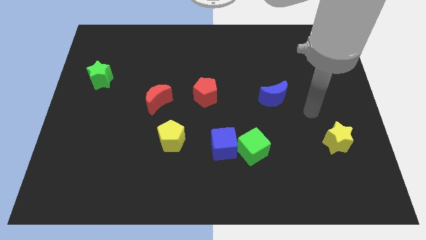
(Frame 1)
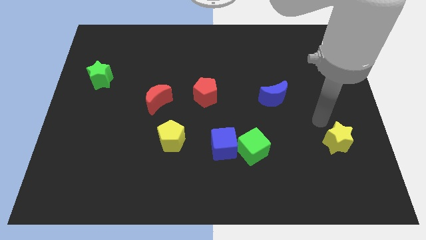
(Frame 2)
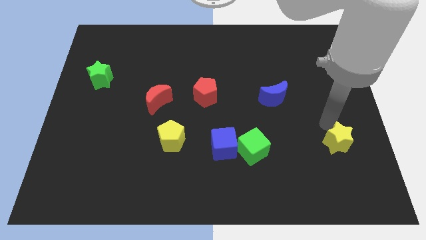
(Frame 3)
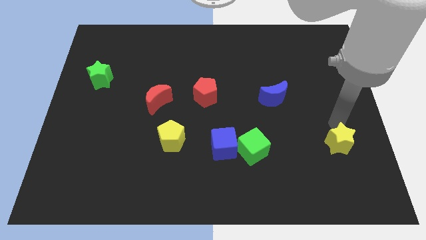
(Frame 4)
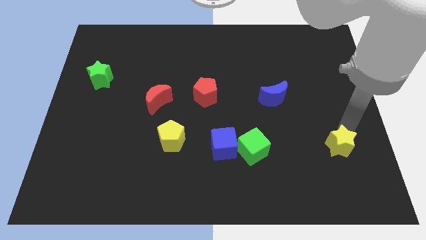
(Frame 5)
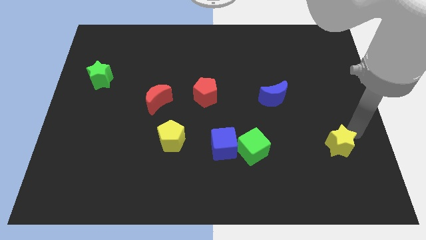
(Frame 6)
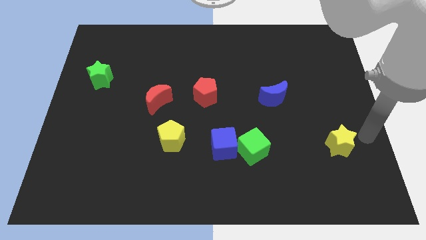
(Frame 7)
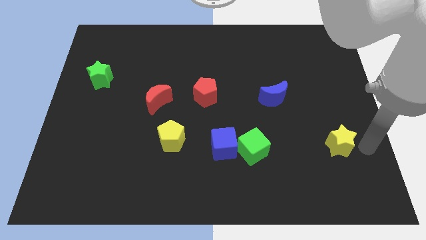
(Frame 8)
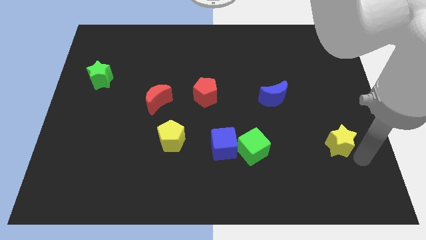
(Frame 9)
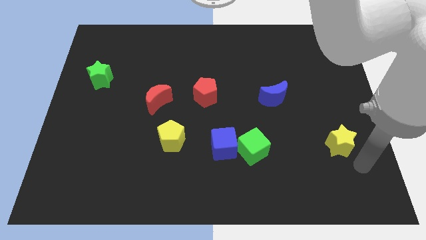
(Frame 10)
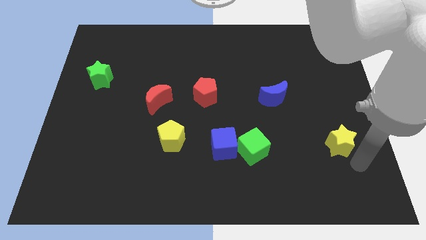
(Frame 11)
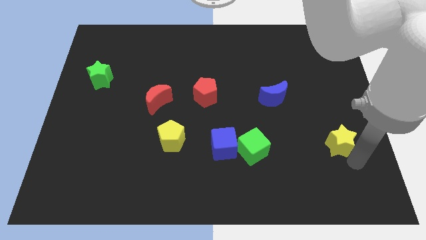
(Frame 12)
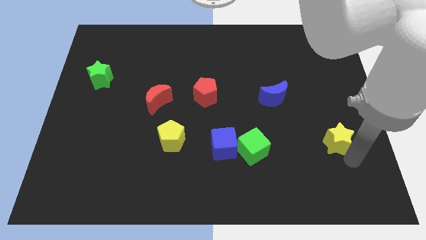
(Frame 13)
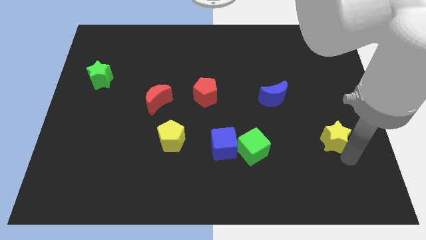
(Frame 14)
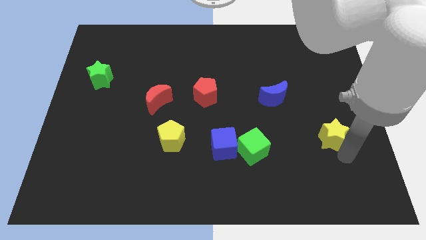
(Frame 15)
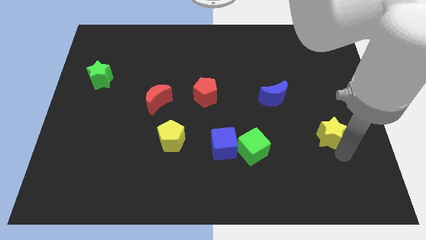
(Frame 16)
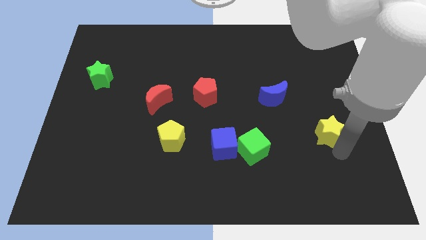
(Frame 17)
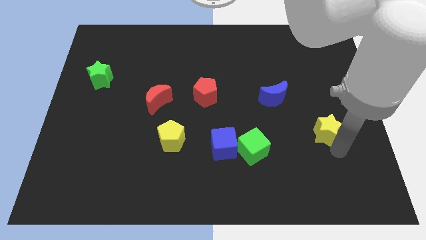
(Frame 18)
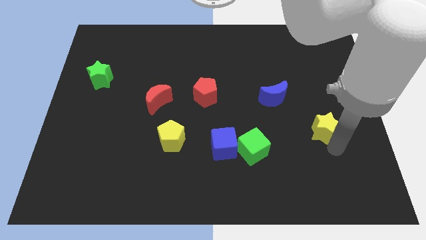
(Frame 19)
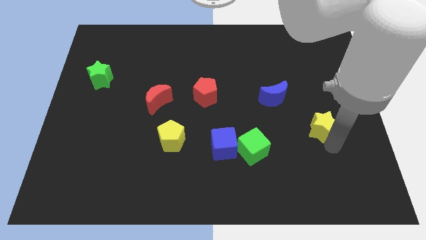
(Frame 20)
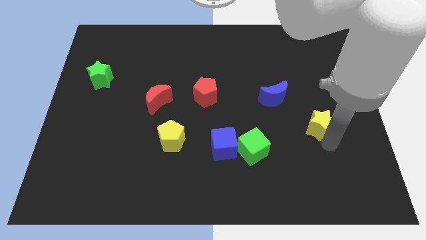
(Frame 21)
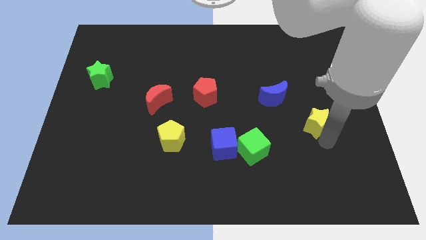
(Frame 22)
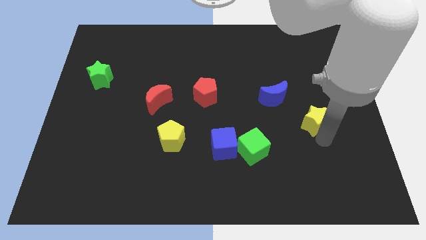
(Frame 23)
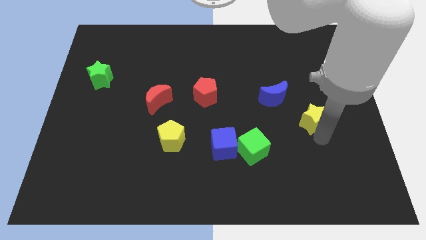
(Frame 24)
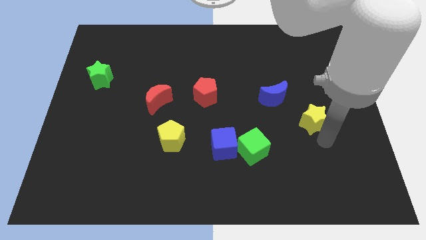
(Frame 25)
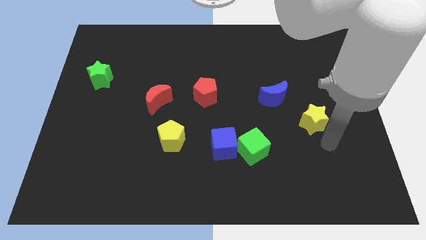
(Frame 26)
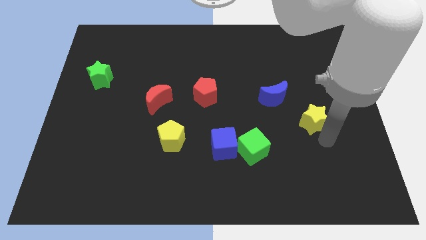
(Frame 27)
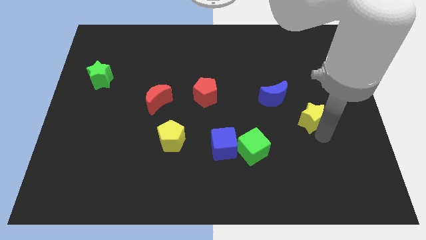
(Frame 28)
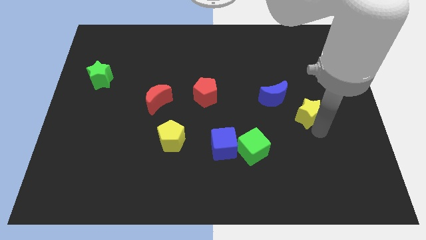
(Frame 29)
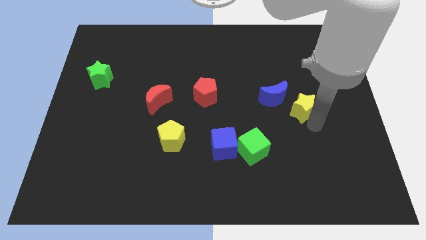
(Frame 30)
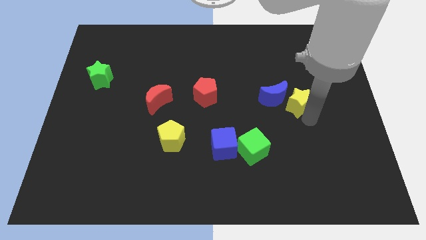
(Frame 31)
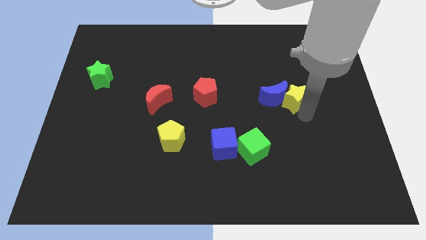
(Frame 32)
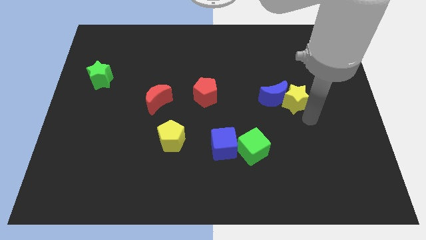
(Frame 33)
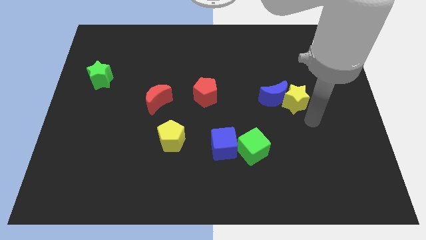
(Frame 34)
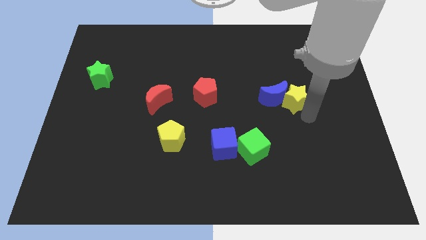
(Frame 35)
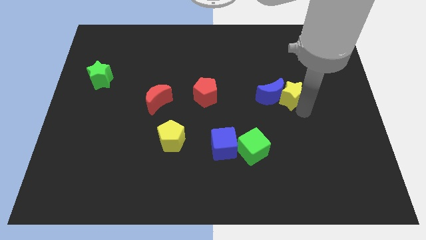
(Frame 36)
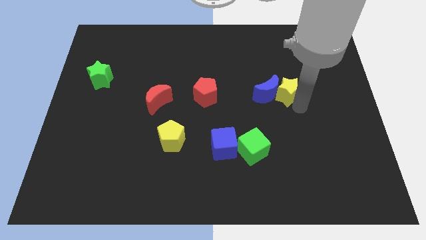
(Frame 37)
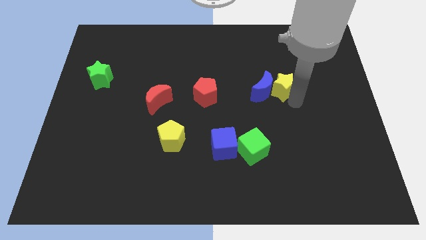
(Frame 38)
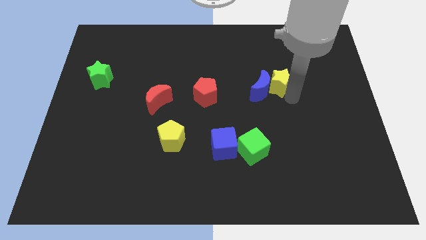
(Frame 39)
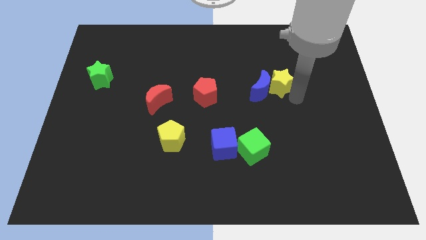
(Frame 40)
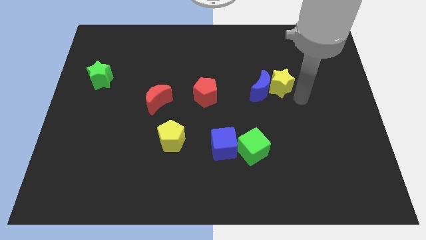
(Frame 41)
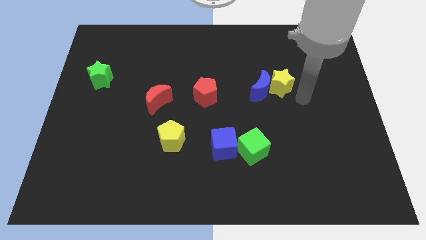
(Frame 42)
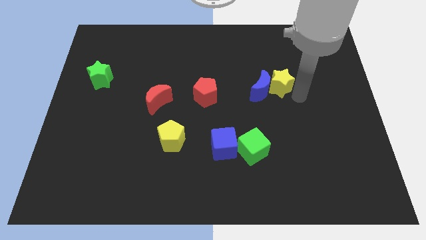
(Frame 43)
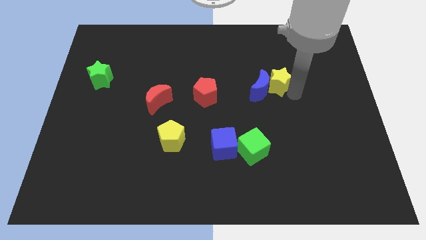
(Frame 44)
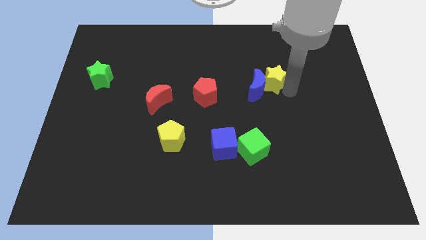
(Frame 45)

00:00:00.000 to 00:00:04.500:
slide the yellow star upwards and left diagonally

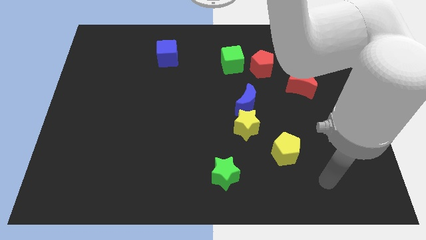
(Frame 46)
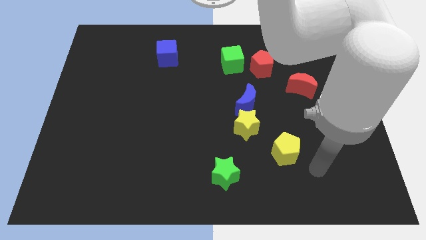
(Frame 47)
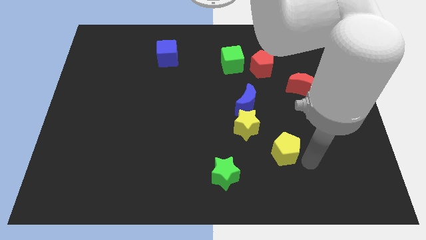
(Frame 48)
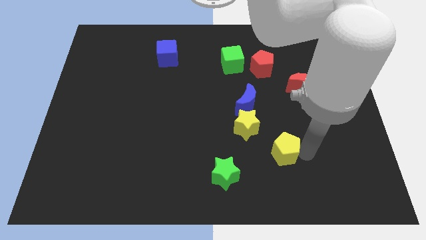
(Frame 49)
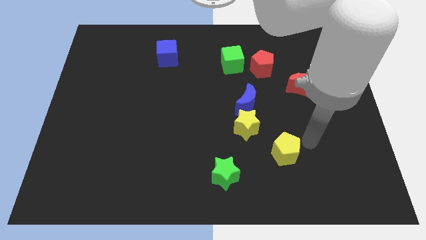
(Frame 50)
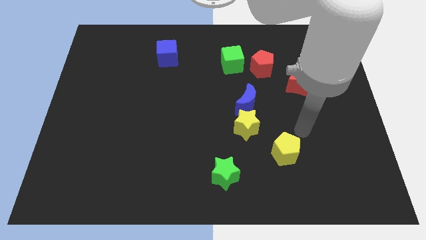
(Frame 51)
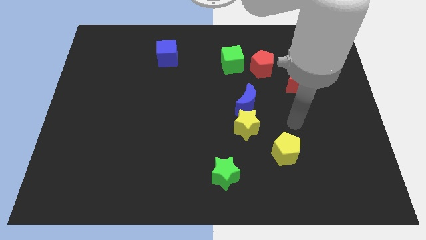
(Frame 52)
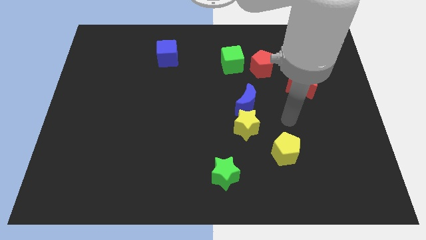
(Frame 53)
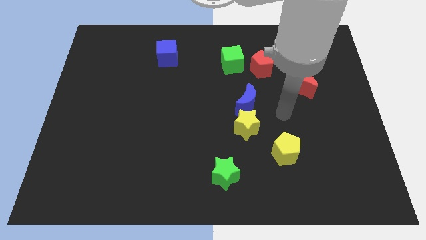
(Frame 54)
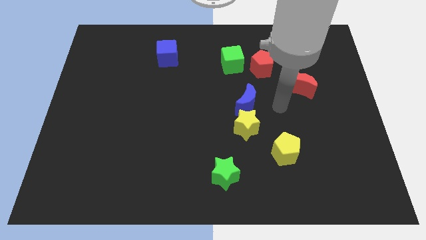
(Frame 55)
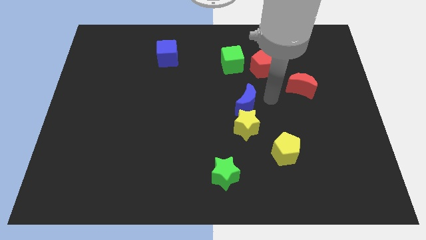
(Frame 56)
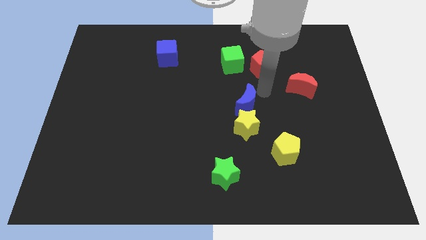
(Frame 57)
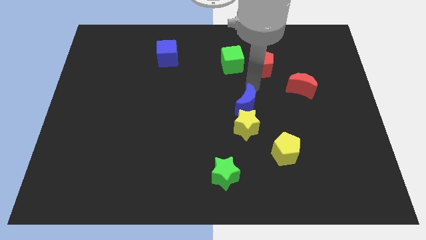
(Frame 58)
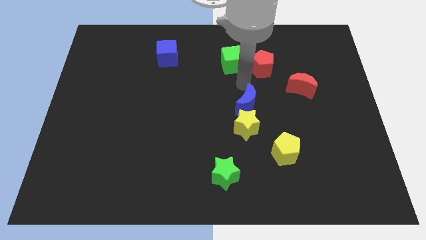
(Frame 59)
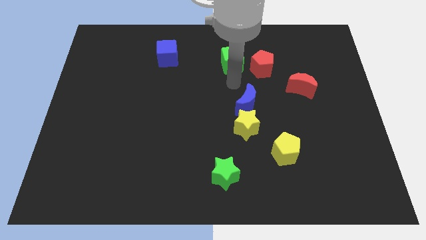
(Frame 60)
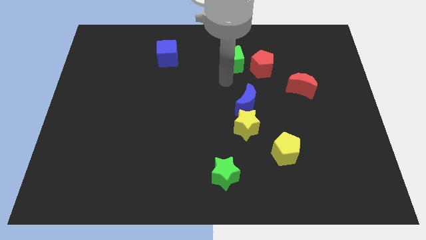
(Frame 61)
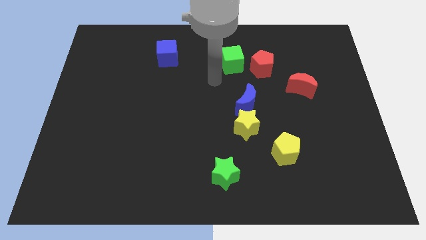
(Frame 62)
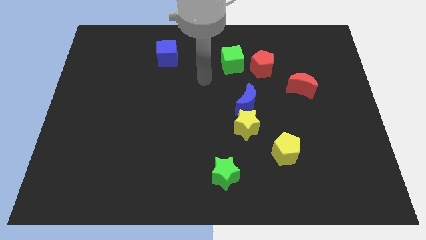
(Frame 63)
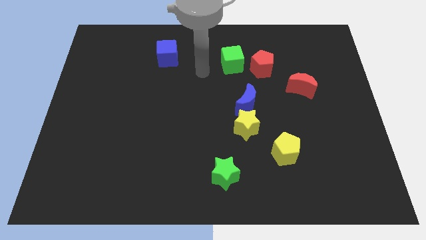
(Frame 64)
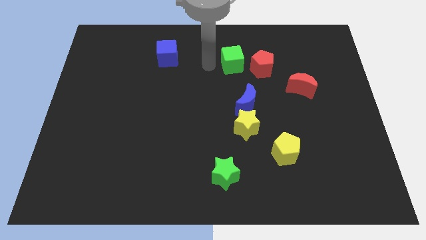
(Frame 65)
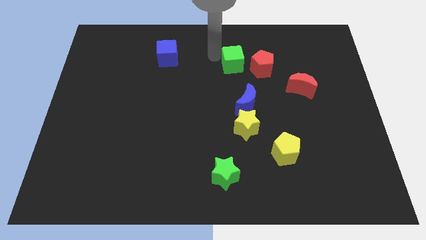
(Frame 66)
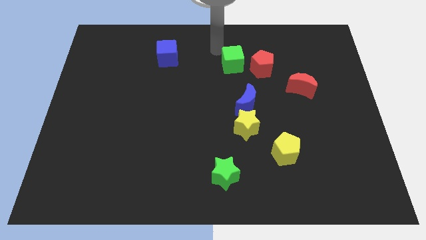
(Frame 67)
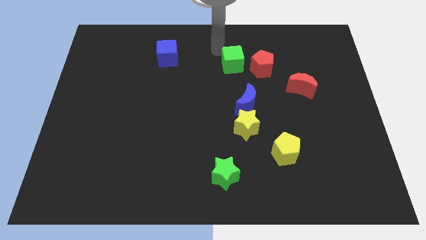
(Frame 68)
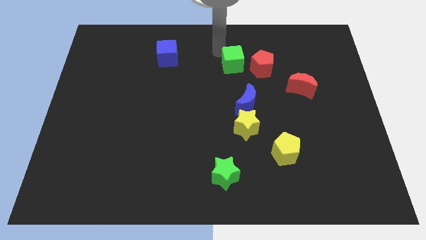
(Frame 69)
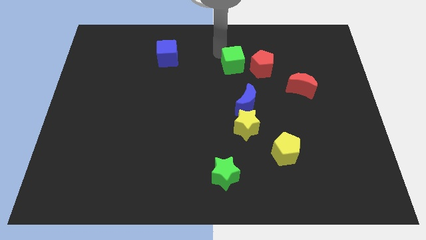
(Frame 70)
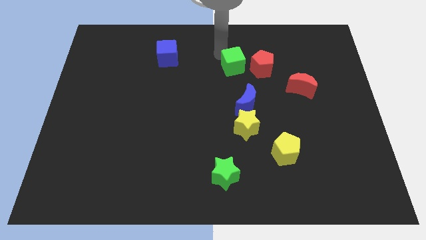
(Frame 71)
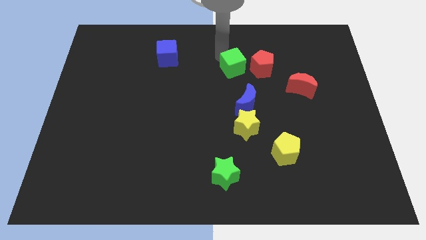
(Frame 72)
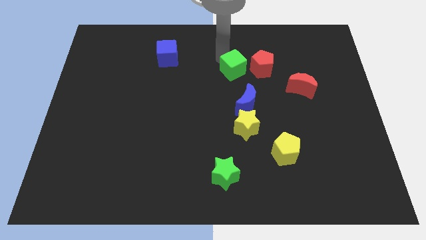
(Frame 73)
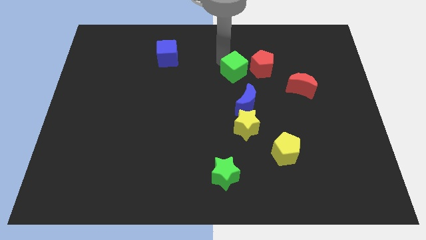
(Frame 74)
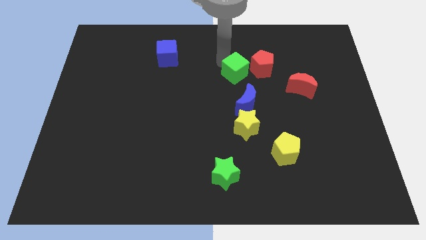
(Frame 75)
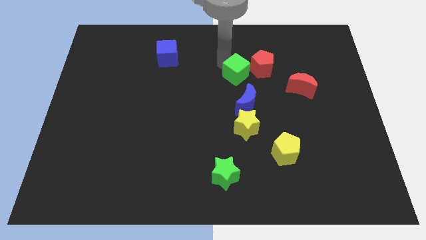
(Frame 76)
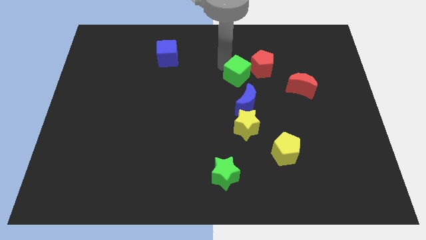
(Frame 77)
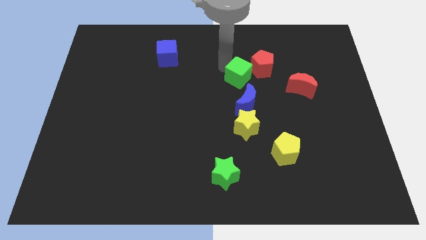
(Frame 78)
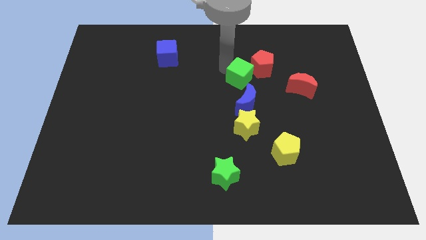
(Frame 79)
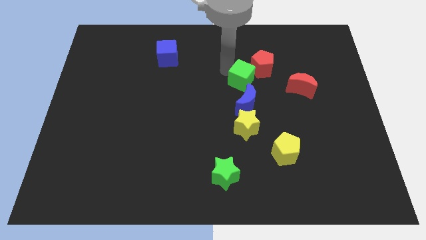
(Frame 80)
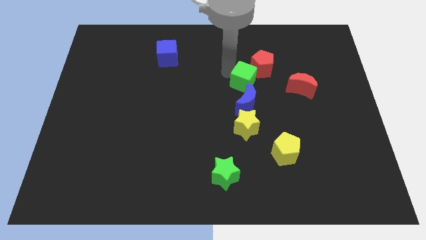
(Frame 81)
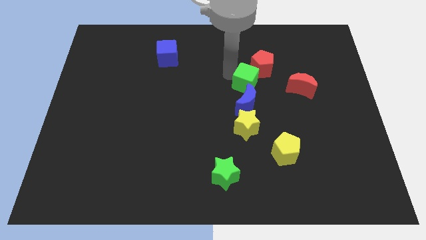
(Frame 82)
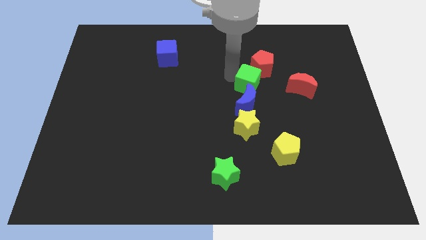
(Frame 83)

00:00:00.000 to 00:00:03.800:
slide the green cube slightly downwards and then right
